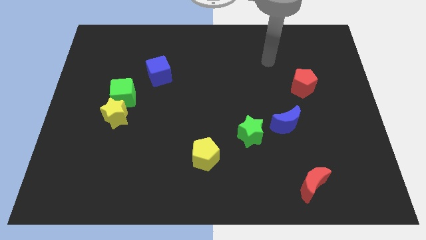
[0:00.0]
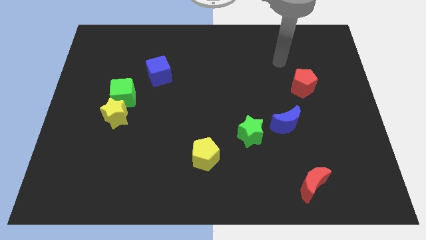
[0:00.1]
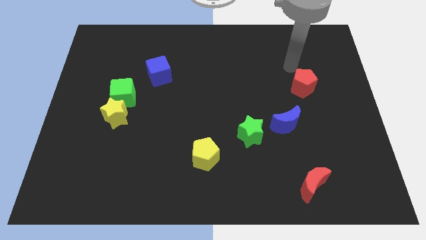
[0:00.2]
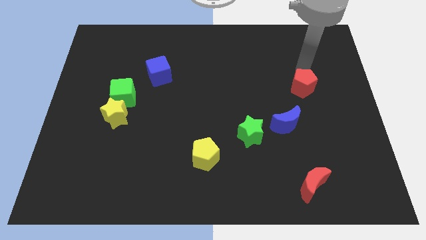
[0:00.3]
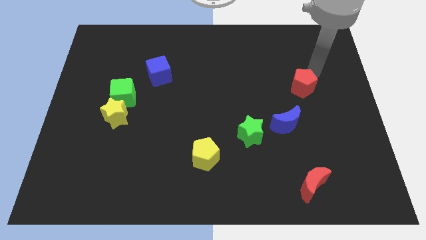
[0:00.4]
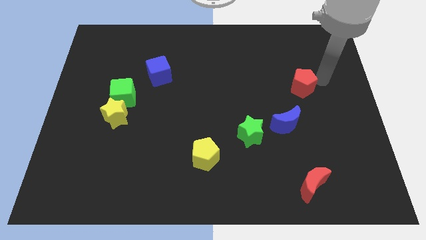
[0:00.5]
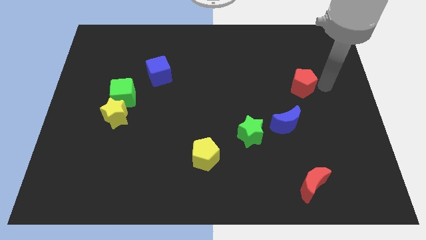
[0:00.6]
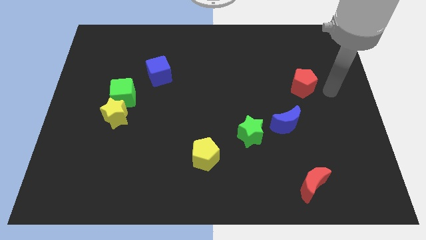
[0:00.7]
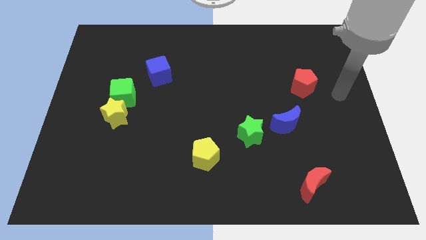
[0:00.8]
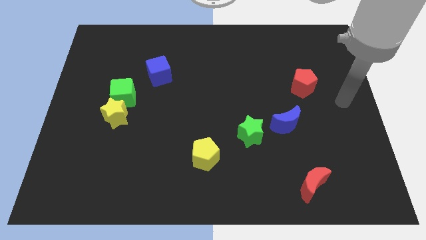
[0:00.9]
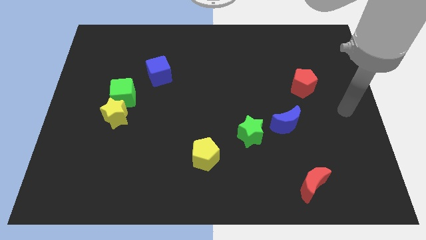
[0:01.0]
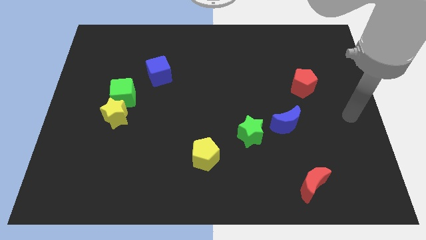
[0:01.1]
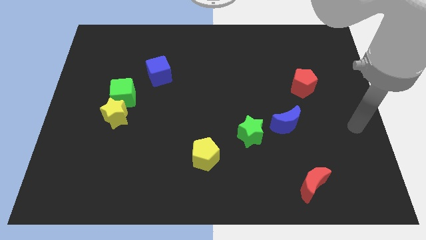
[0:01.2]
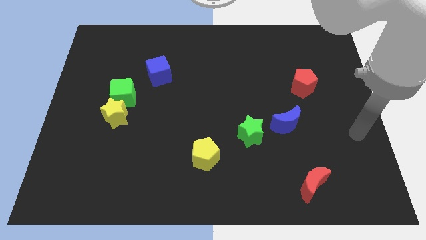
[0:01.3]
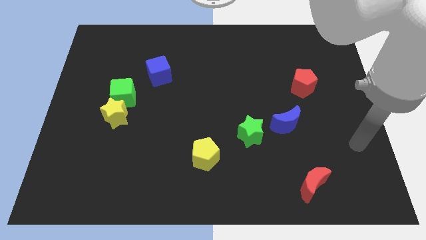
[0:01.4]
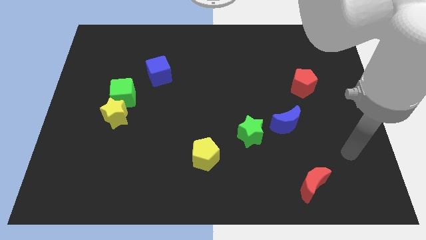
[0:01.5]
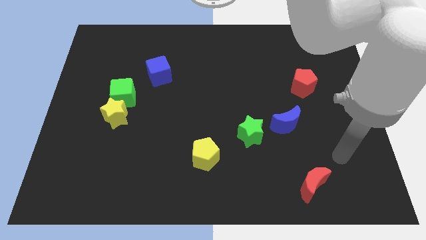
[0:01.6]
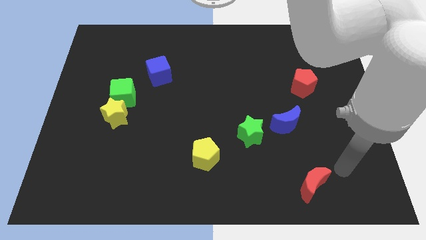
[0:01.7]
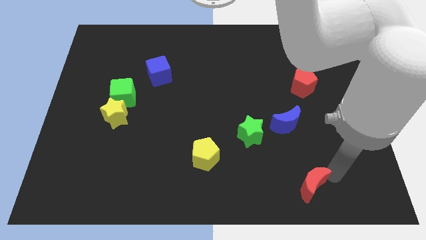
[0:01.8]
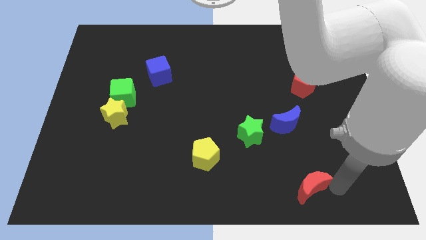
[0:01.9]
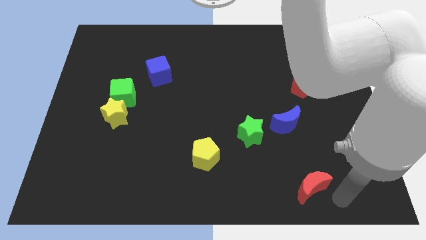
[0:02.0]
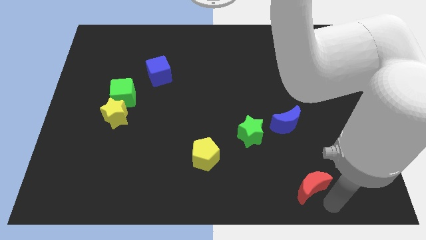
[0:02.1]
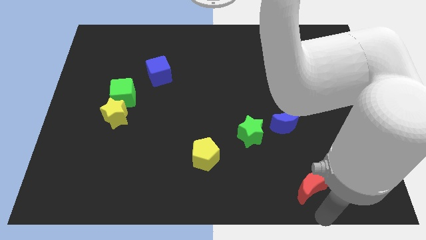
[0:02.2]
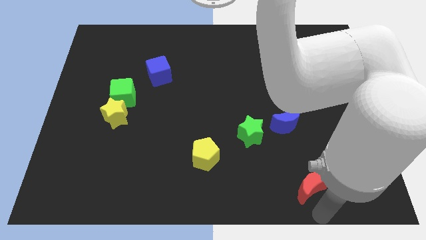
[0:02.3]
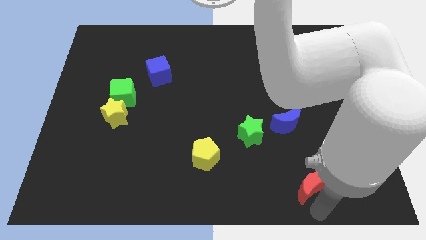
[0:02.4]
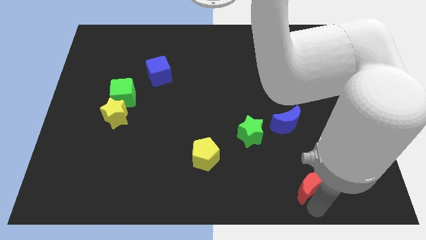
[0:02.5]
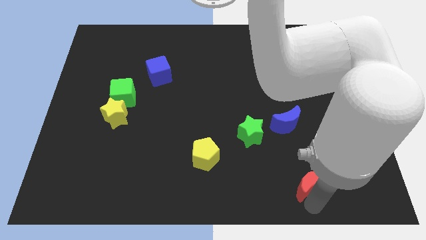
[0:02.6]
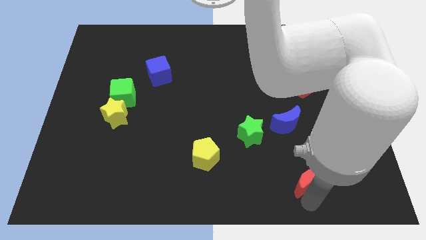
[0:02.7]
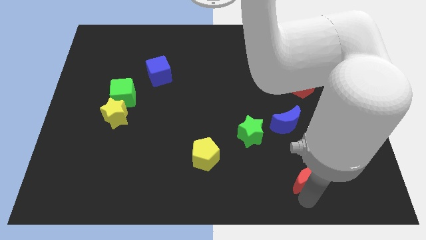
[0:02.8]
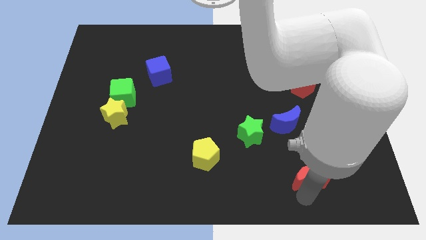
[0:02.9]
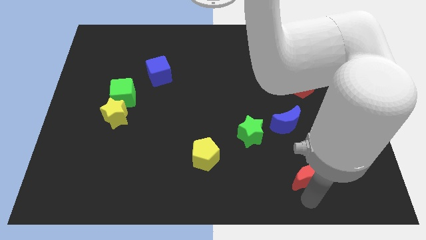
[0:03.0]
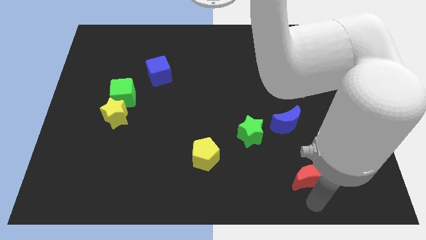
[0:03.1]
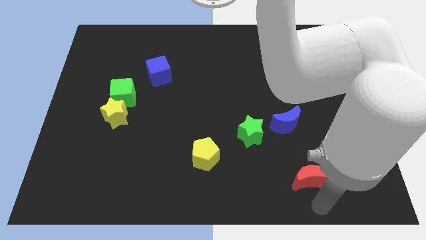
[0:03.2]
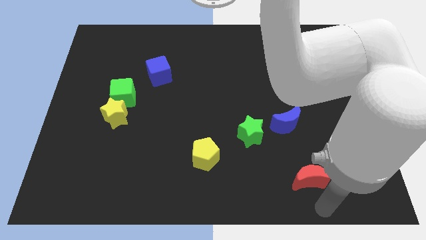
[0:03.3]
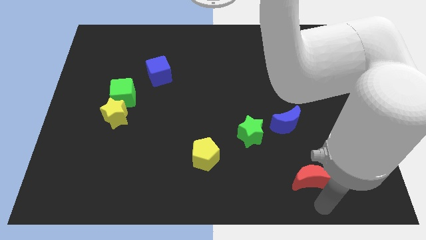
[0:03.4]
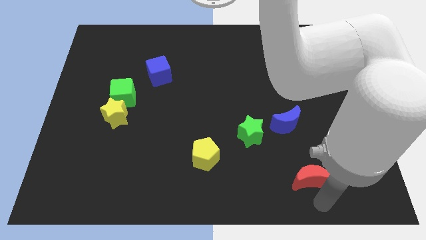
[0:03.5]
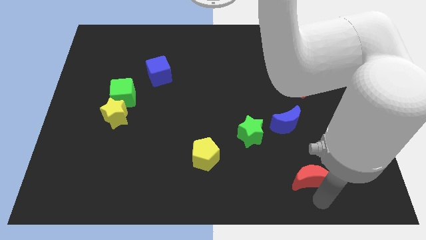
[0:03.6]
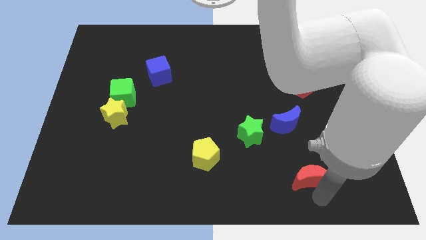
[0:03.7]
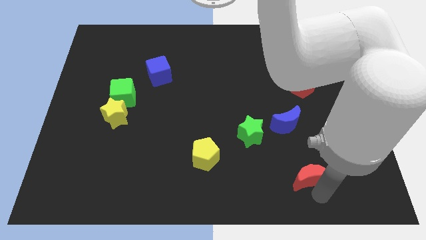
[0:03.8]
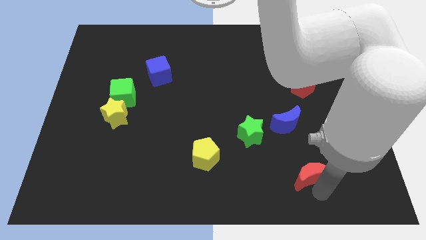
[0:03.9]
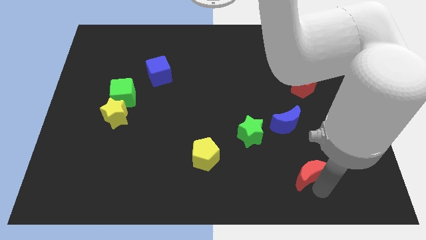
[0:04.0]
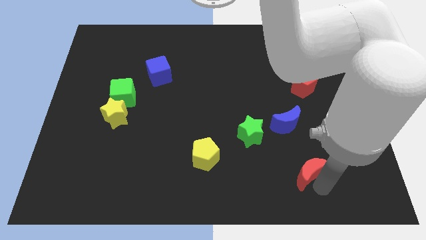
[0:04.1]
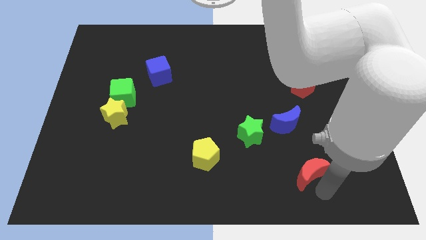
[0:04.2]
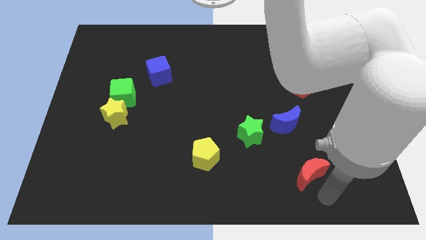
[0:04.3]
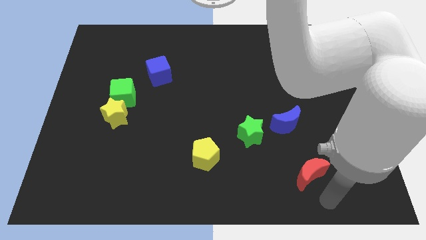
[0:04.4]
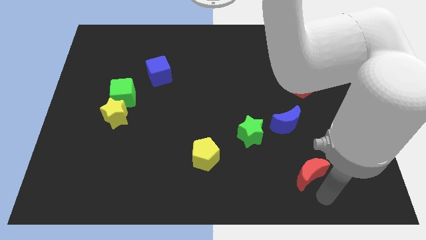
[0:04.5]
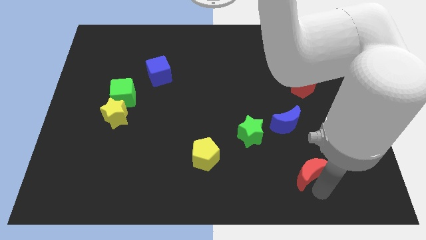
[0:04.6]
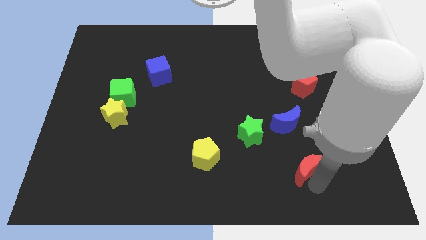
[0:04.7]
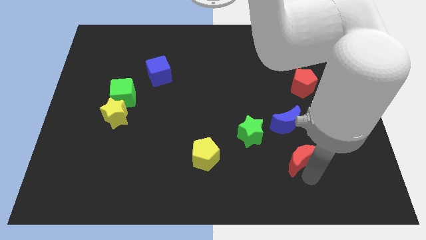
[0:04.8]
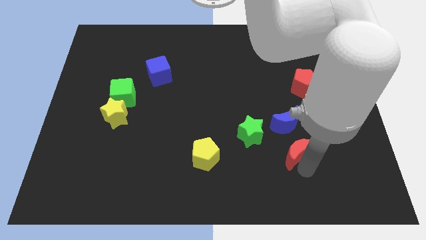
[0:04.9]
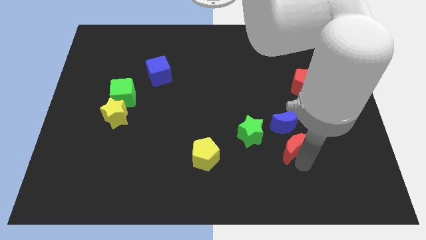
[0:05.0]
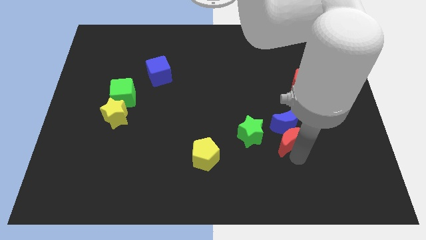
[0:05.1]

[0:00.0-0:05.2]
move the red moon close to the blue moon

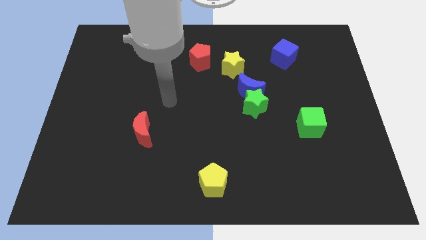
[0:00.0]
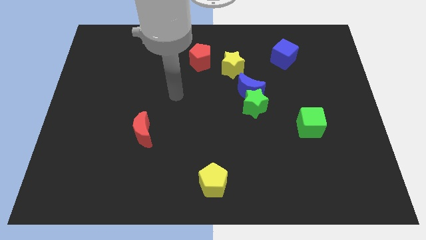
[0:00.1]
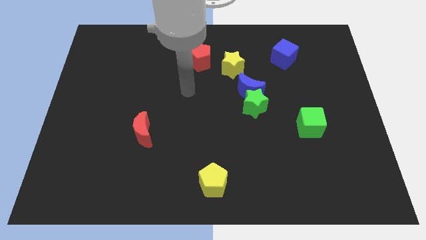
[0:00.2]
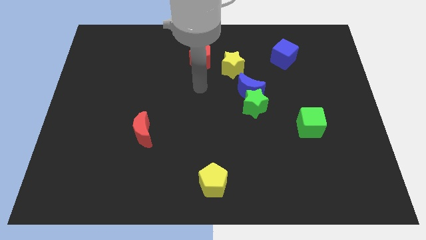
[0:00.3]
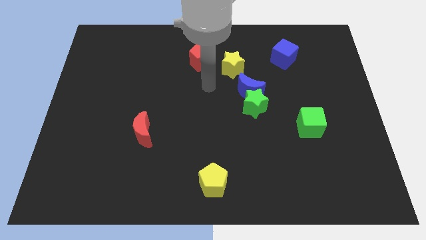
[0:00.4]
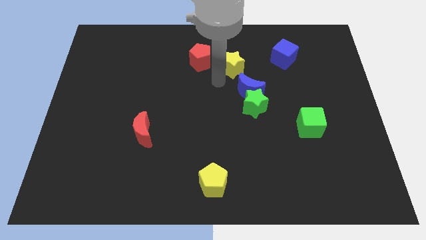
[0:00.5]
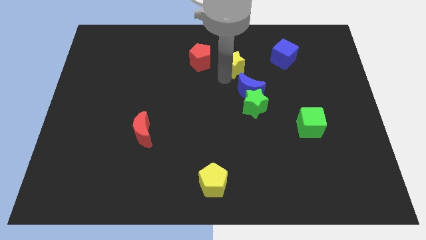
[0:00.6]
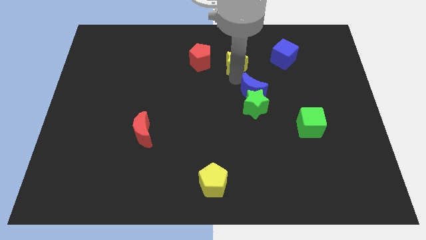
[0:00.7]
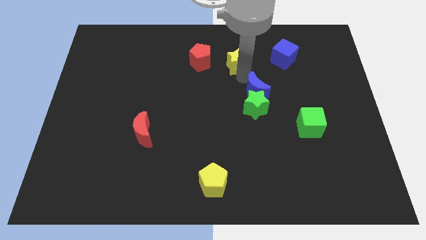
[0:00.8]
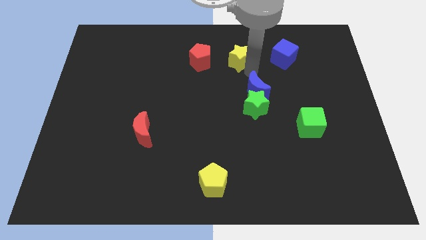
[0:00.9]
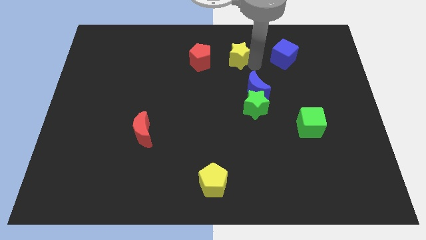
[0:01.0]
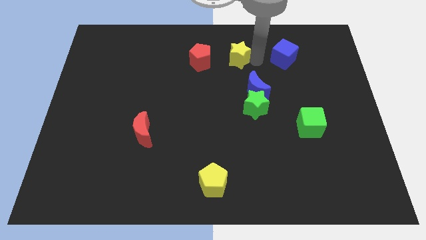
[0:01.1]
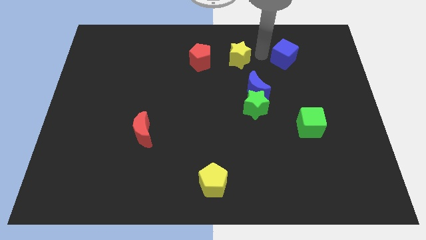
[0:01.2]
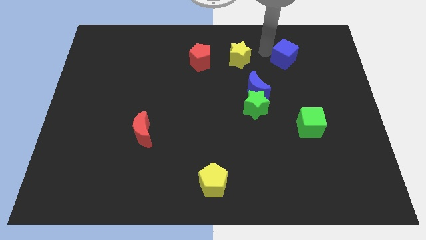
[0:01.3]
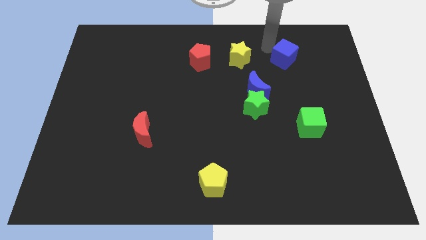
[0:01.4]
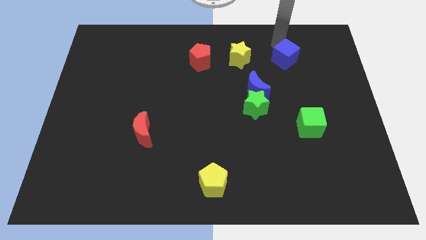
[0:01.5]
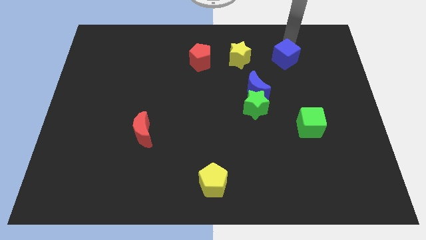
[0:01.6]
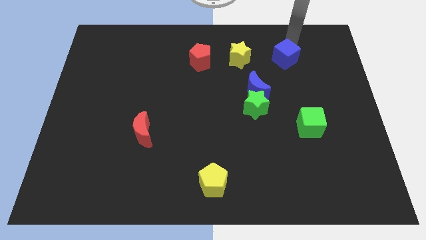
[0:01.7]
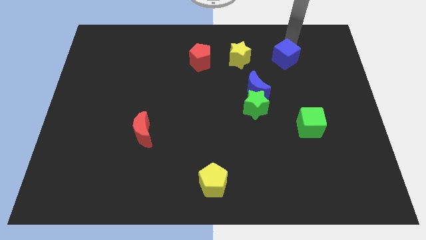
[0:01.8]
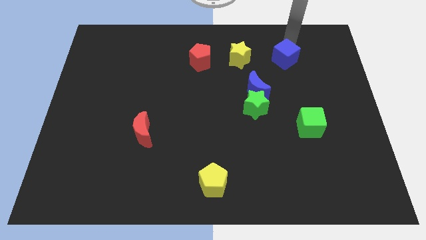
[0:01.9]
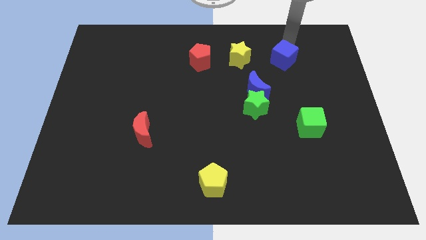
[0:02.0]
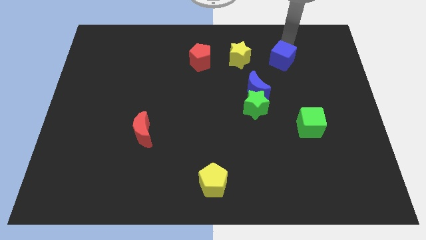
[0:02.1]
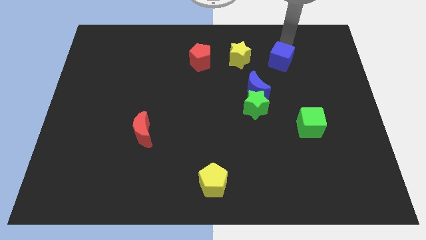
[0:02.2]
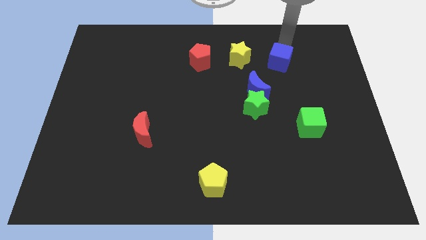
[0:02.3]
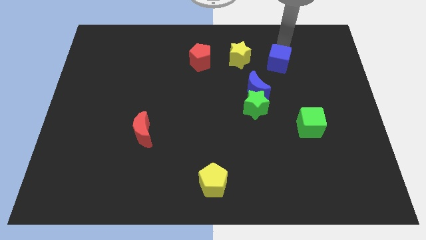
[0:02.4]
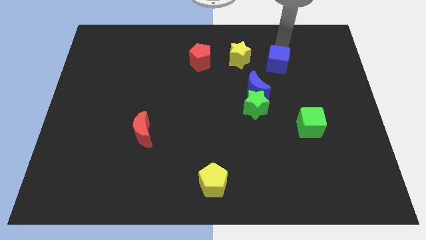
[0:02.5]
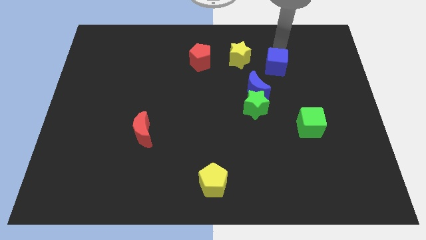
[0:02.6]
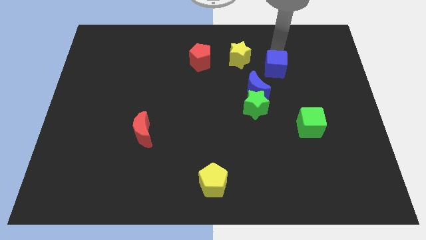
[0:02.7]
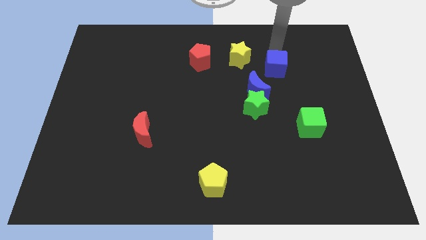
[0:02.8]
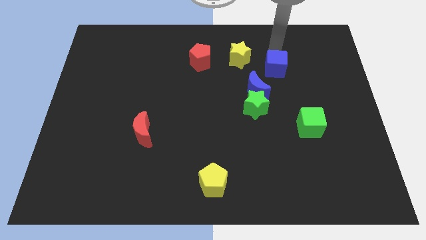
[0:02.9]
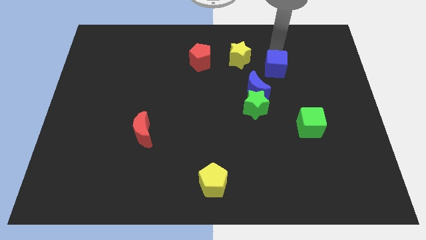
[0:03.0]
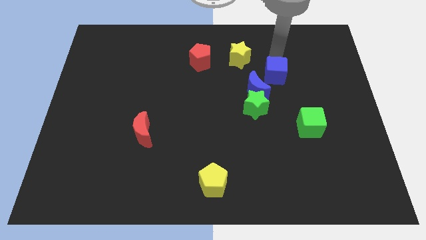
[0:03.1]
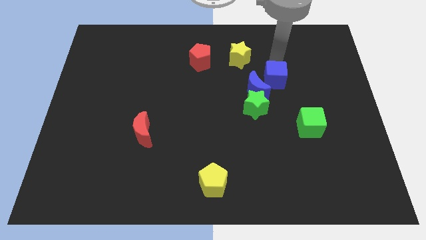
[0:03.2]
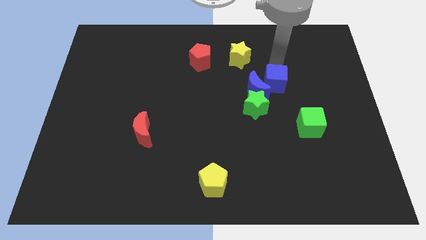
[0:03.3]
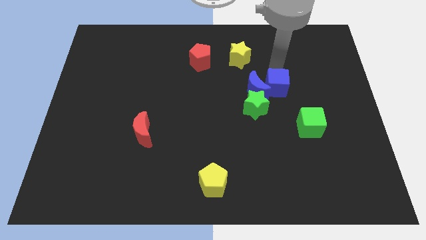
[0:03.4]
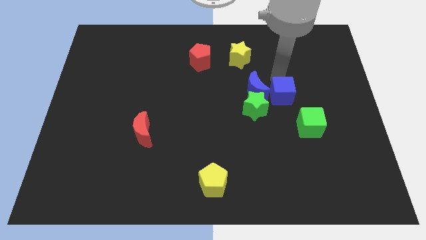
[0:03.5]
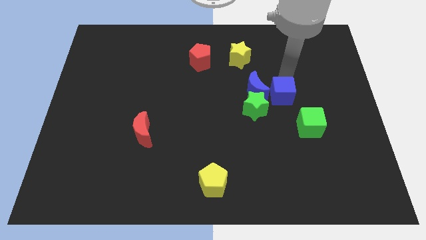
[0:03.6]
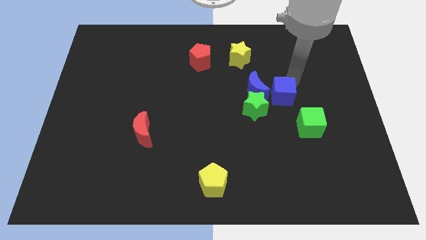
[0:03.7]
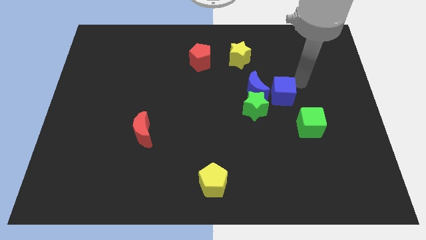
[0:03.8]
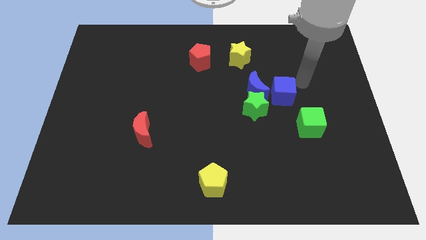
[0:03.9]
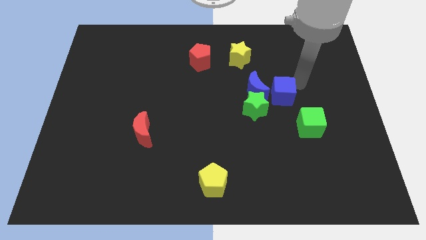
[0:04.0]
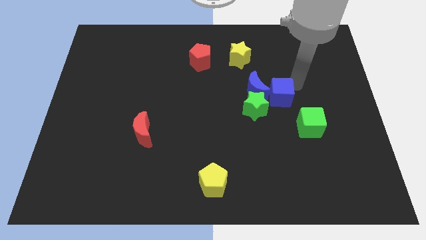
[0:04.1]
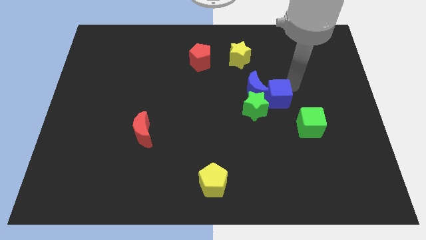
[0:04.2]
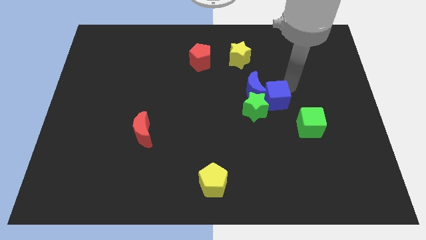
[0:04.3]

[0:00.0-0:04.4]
slide the blue cube to the green star
